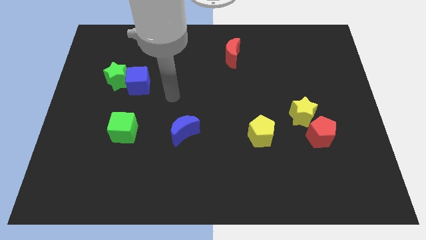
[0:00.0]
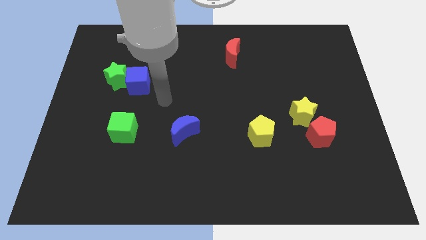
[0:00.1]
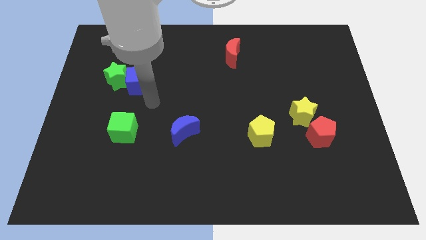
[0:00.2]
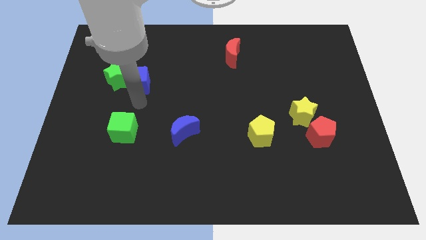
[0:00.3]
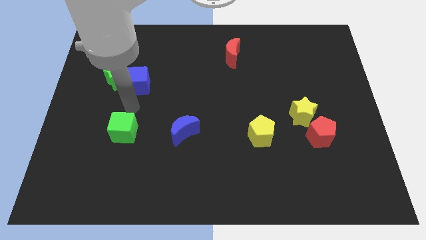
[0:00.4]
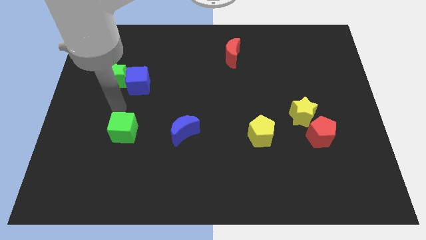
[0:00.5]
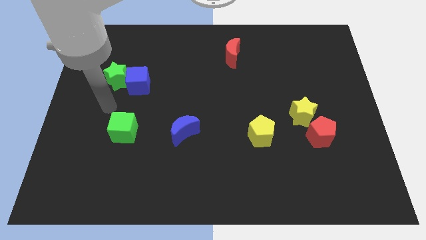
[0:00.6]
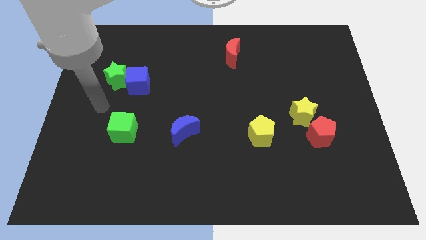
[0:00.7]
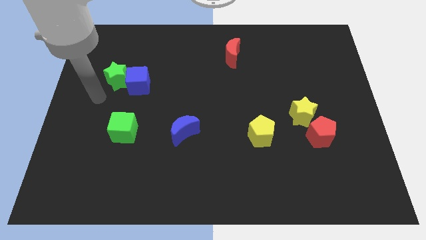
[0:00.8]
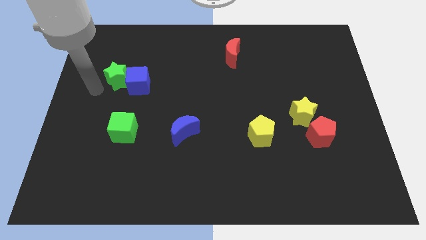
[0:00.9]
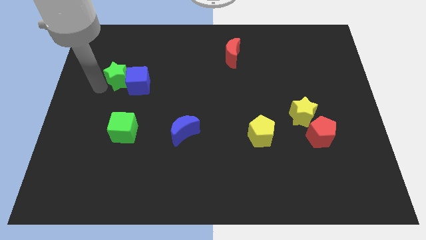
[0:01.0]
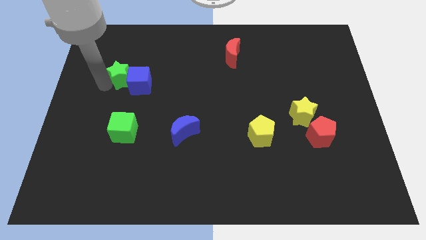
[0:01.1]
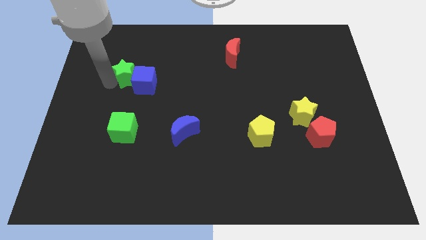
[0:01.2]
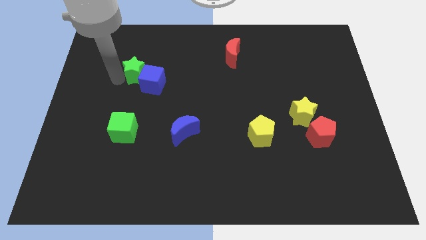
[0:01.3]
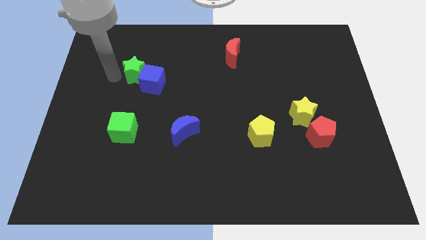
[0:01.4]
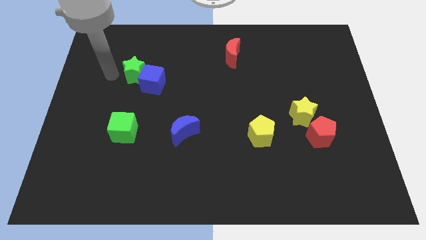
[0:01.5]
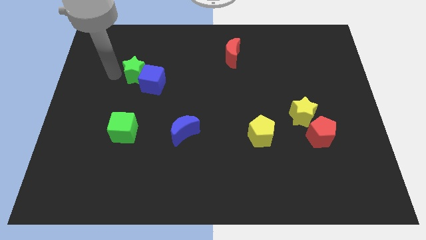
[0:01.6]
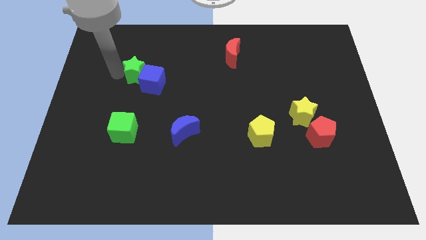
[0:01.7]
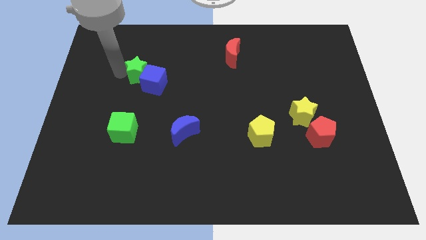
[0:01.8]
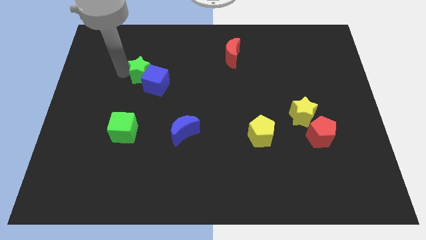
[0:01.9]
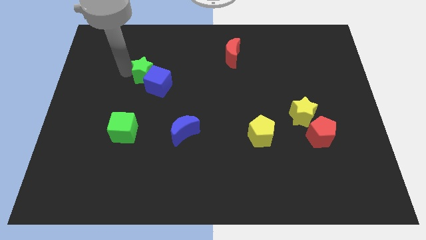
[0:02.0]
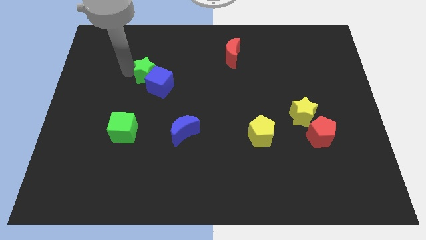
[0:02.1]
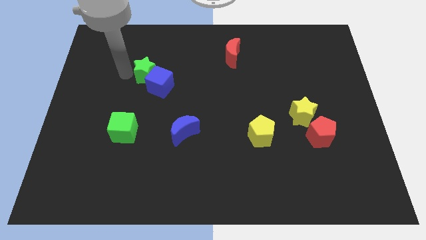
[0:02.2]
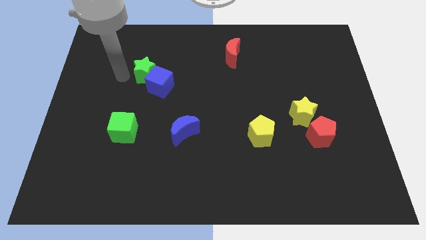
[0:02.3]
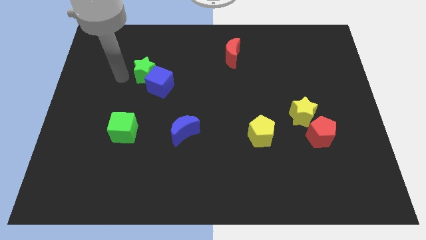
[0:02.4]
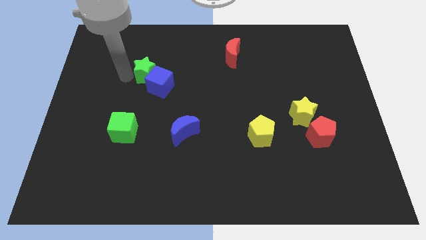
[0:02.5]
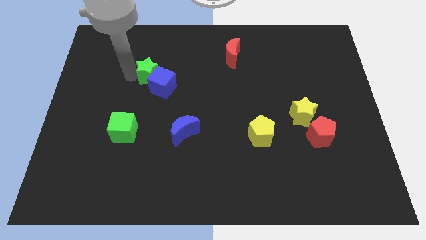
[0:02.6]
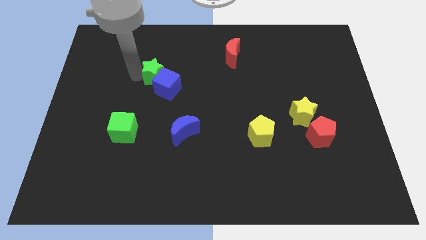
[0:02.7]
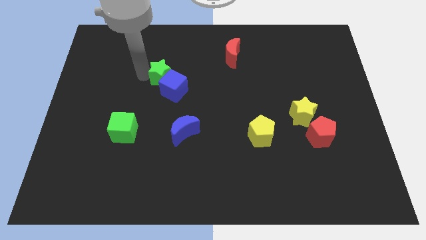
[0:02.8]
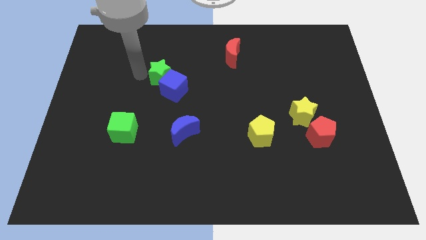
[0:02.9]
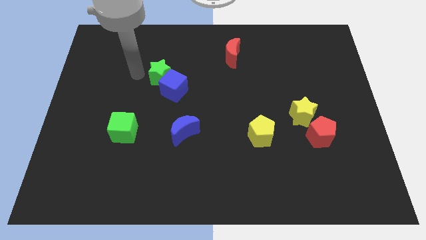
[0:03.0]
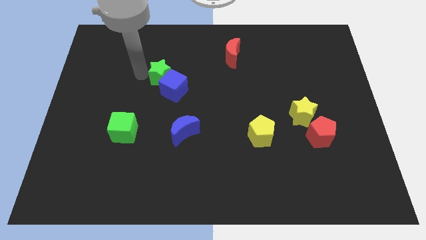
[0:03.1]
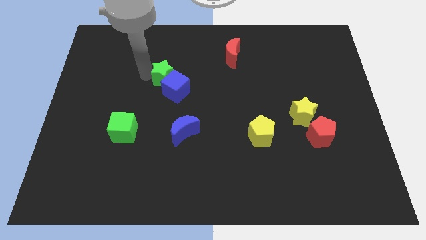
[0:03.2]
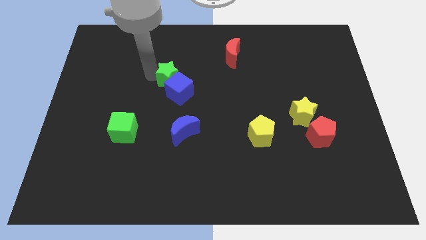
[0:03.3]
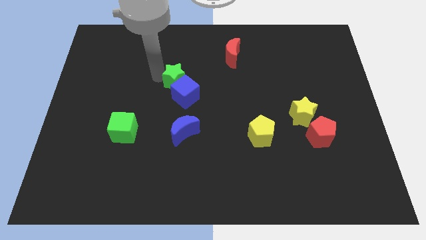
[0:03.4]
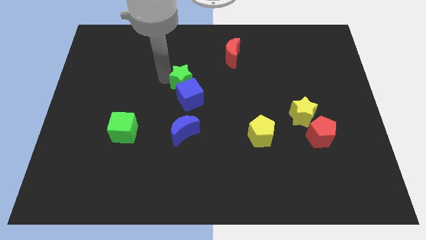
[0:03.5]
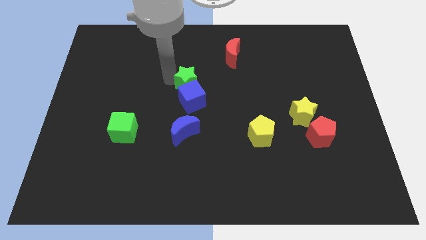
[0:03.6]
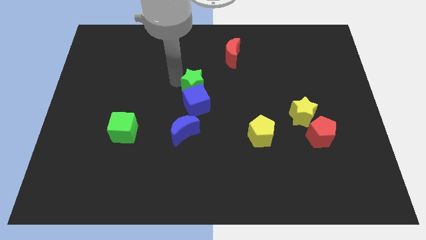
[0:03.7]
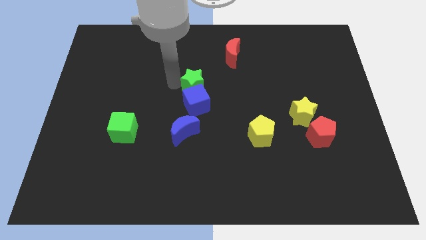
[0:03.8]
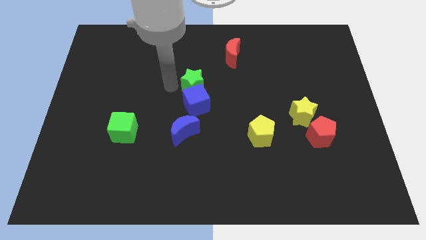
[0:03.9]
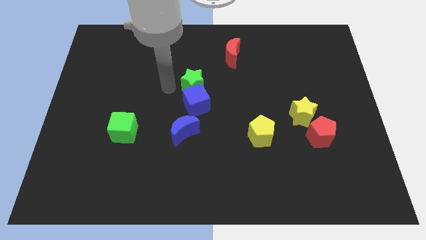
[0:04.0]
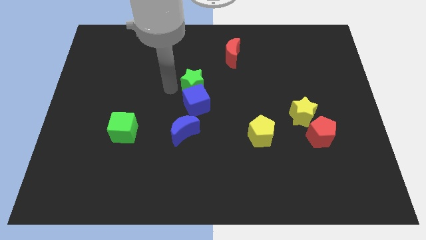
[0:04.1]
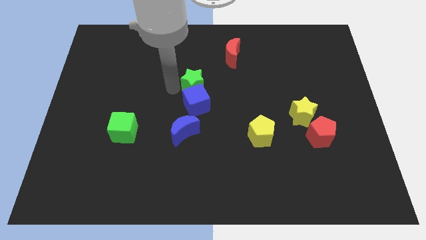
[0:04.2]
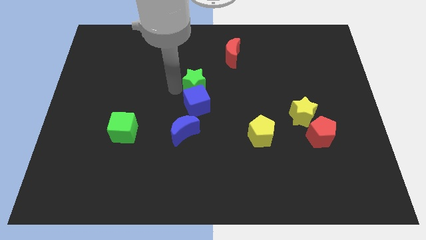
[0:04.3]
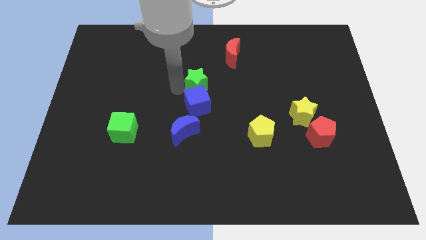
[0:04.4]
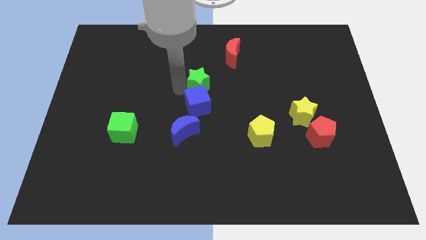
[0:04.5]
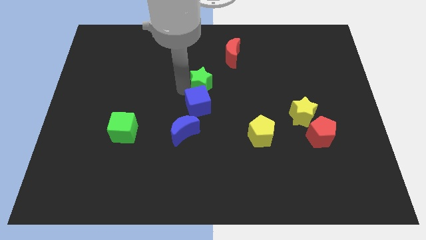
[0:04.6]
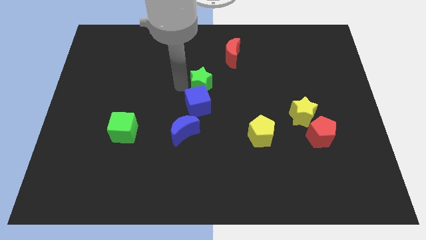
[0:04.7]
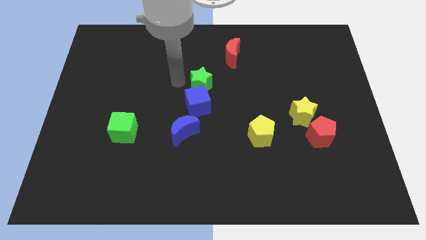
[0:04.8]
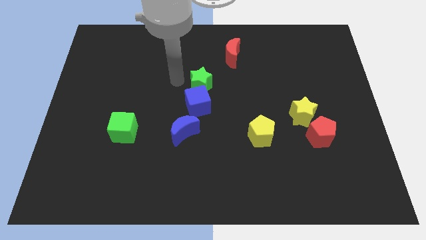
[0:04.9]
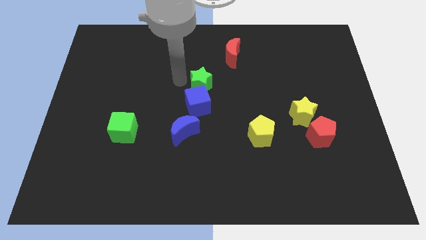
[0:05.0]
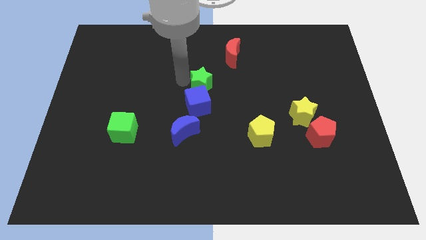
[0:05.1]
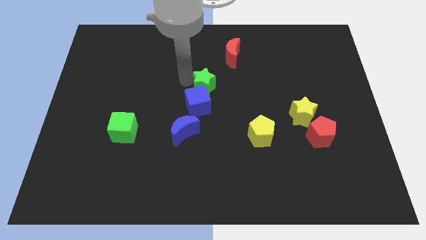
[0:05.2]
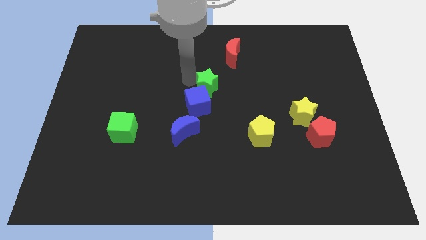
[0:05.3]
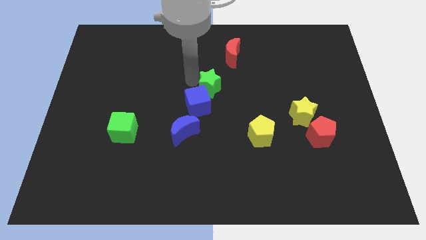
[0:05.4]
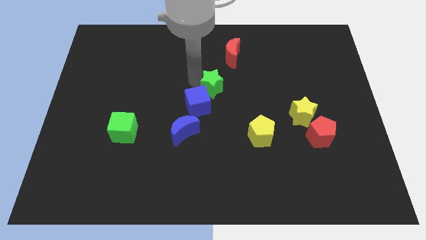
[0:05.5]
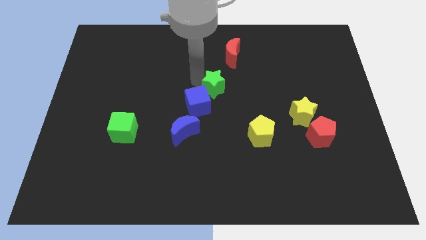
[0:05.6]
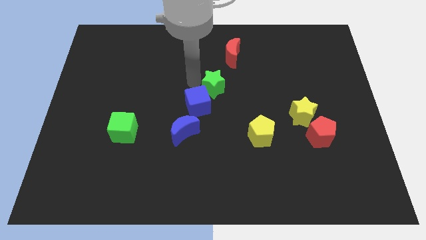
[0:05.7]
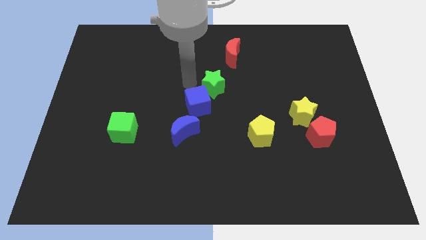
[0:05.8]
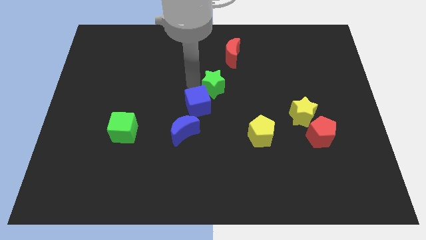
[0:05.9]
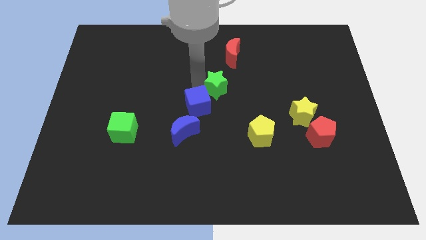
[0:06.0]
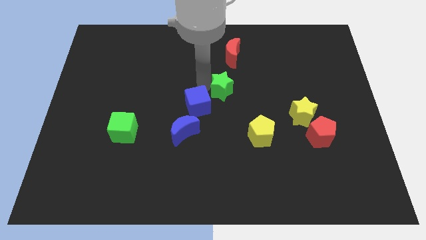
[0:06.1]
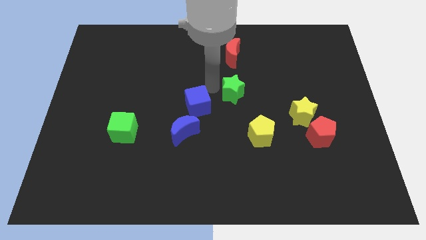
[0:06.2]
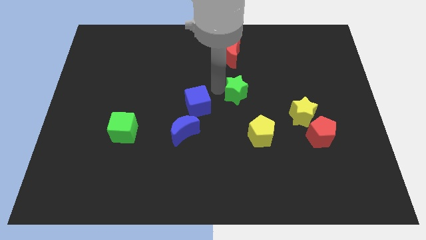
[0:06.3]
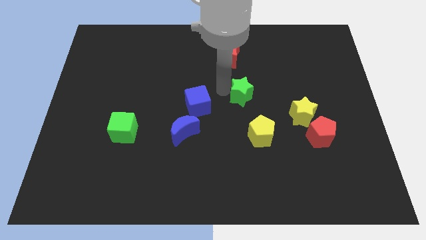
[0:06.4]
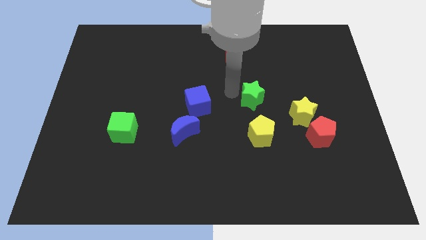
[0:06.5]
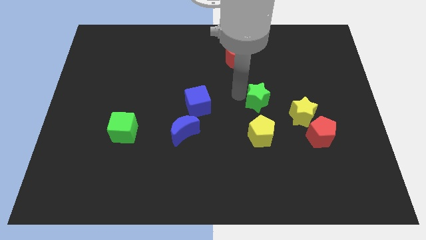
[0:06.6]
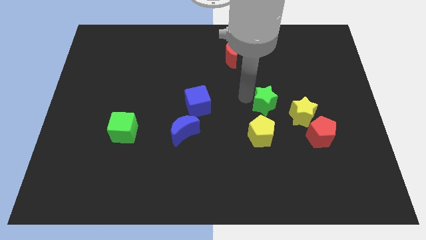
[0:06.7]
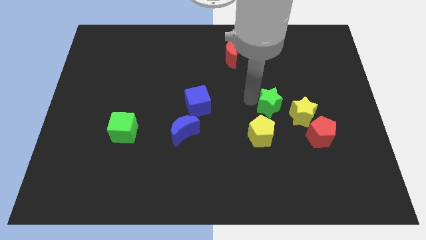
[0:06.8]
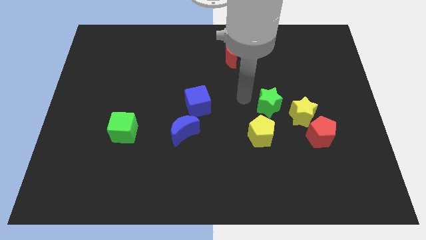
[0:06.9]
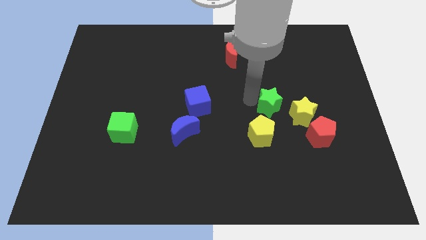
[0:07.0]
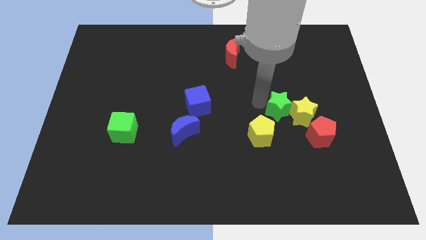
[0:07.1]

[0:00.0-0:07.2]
move the green star to the yellow star

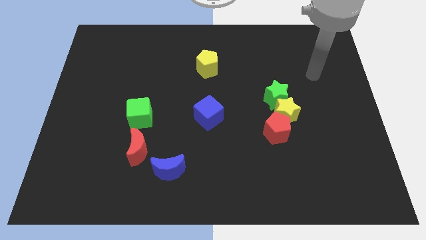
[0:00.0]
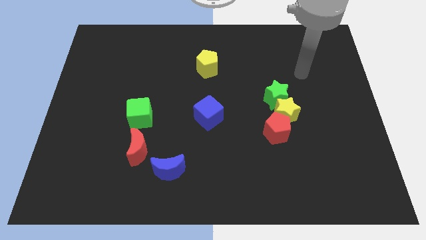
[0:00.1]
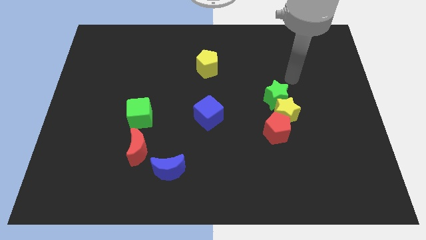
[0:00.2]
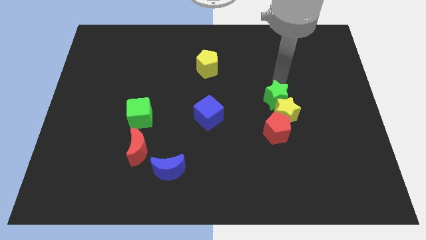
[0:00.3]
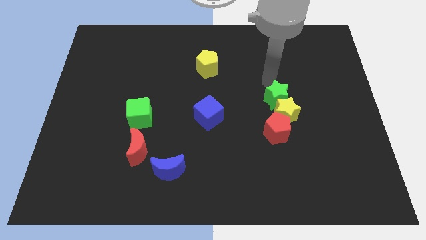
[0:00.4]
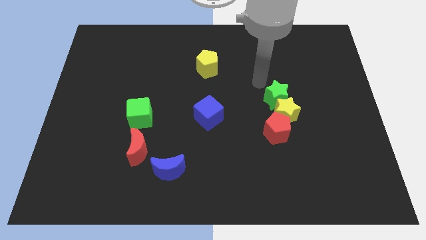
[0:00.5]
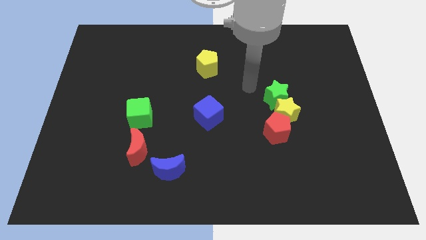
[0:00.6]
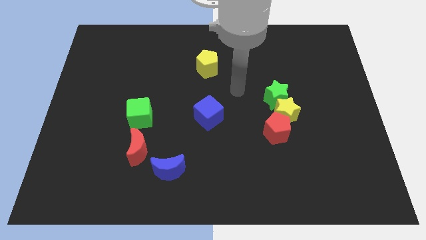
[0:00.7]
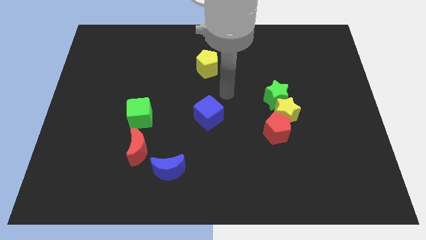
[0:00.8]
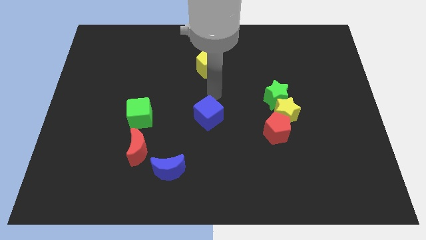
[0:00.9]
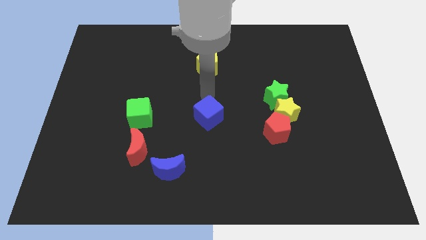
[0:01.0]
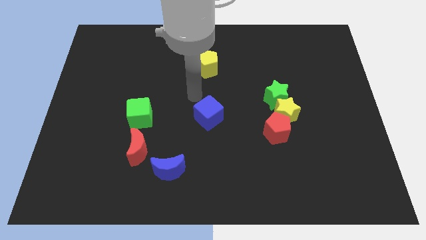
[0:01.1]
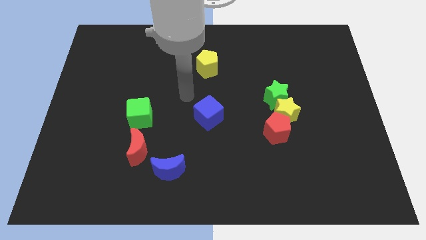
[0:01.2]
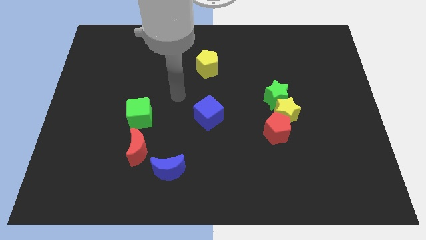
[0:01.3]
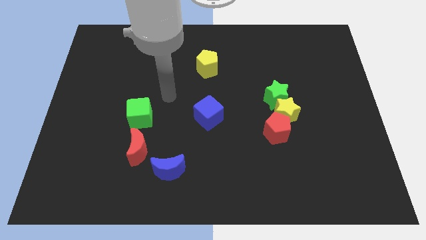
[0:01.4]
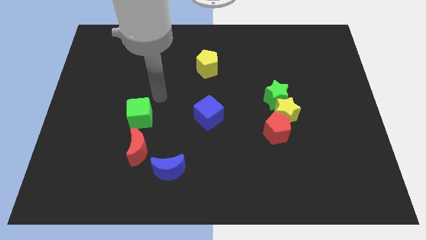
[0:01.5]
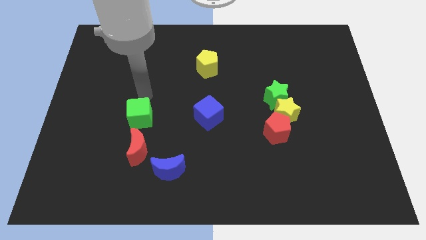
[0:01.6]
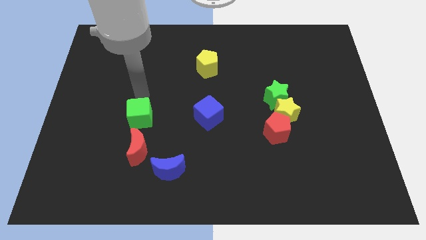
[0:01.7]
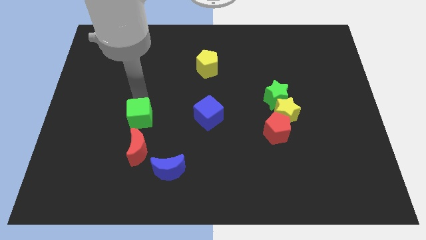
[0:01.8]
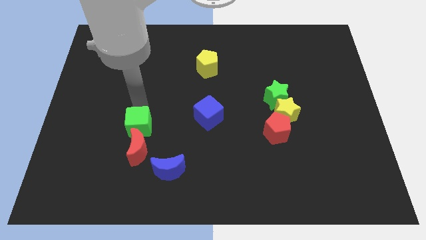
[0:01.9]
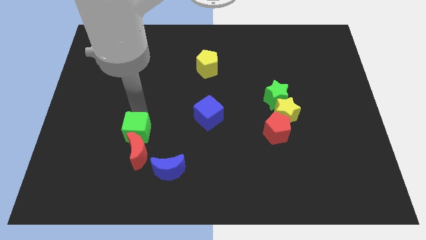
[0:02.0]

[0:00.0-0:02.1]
push the green cube close to the red moon
